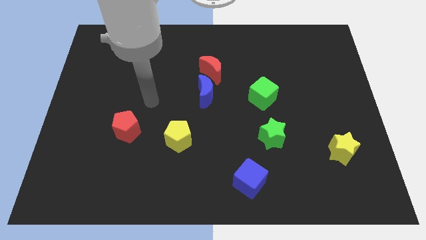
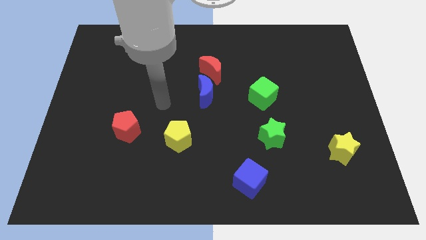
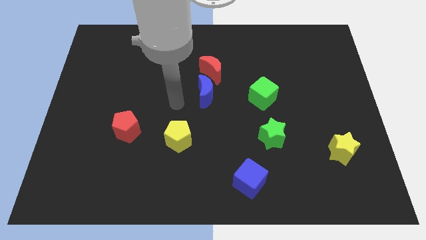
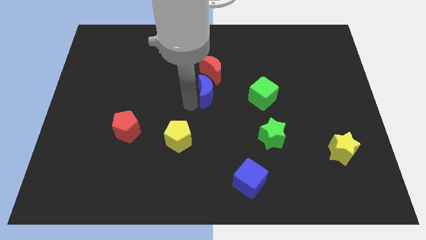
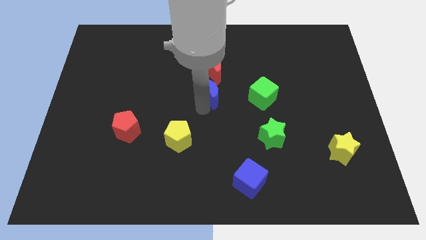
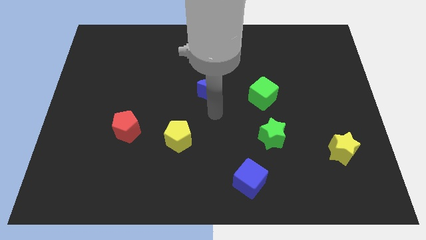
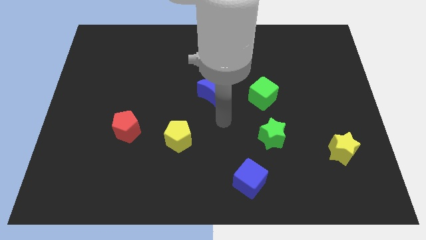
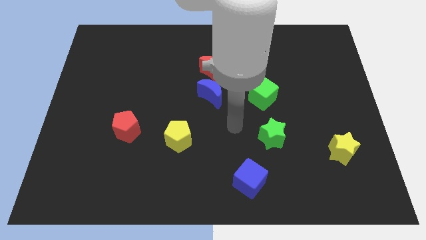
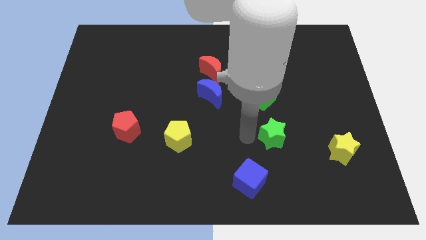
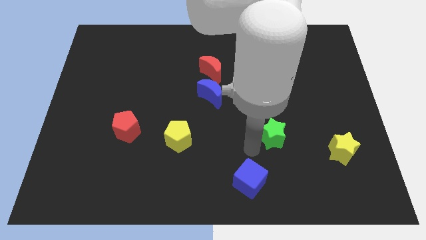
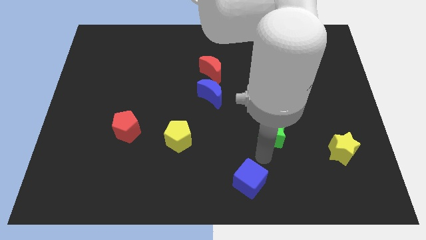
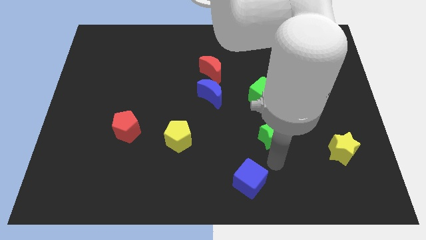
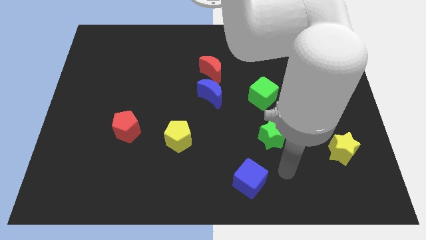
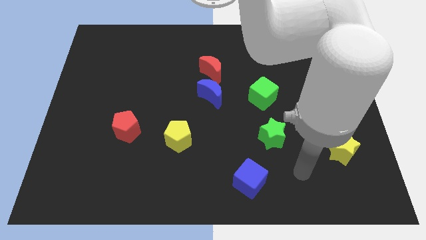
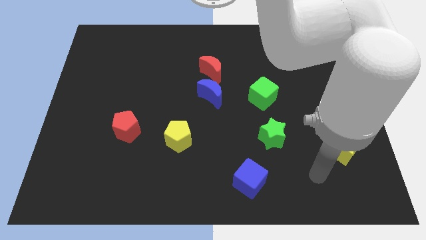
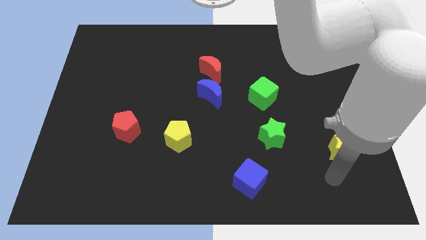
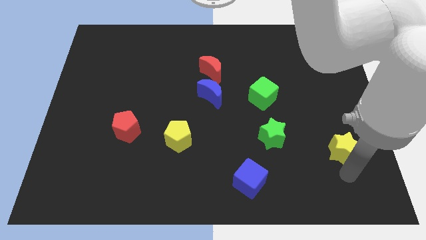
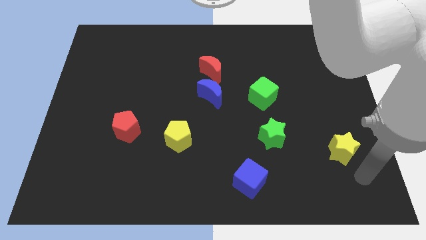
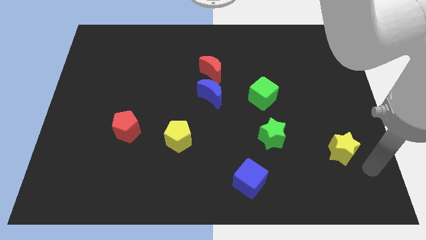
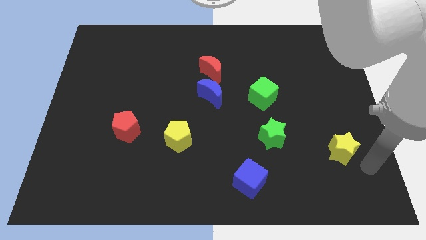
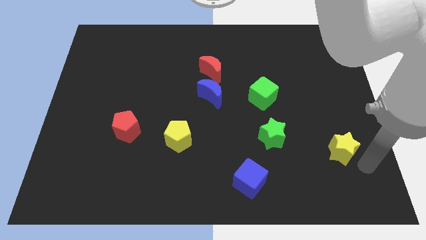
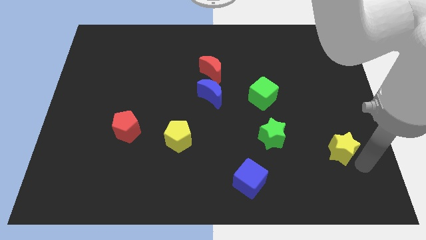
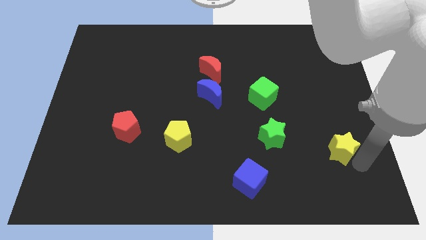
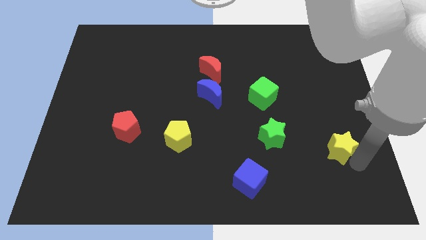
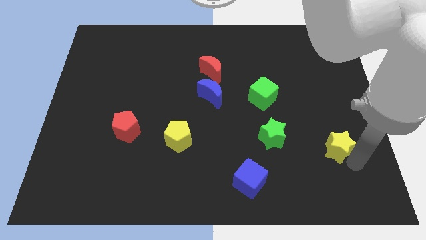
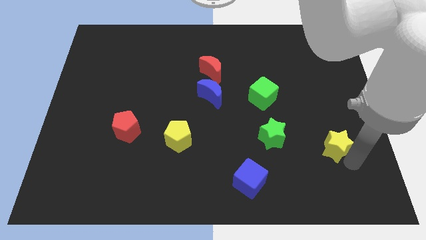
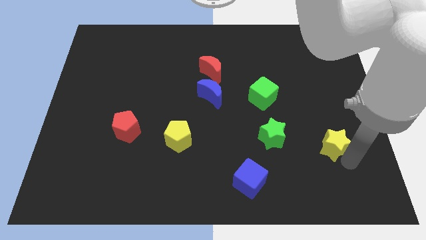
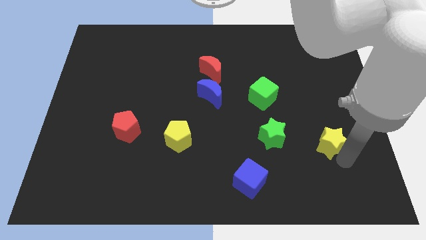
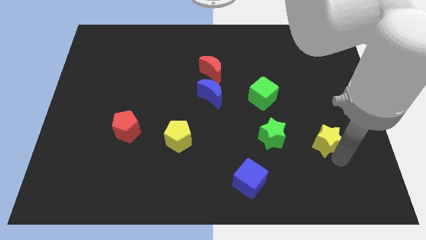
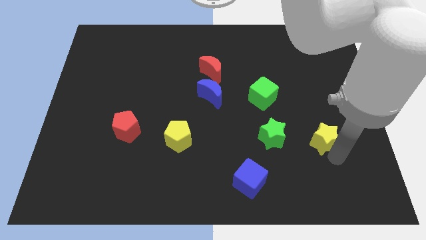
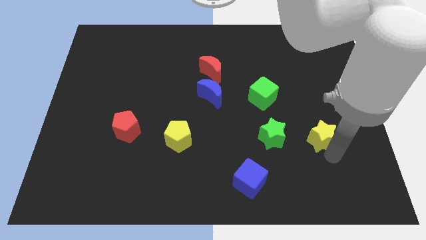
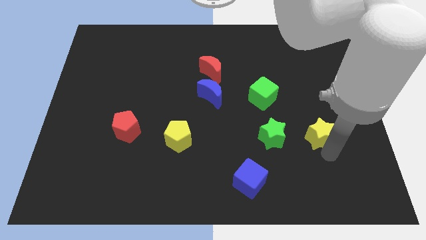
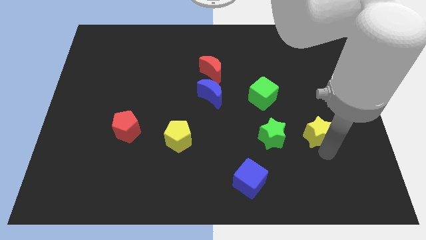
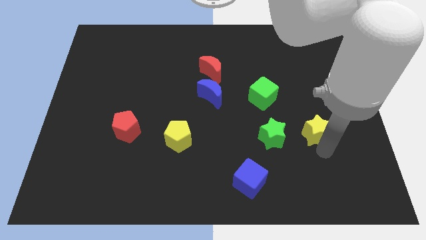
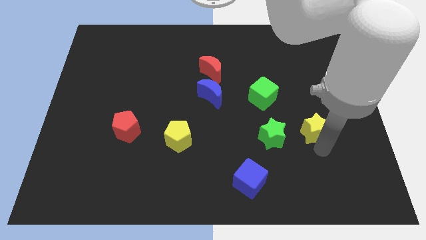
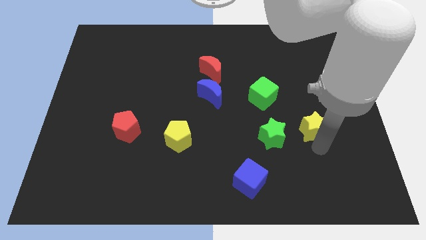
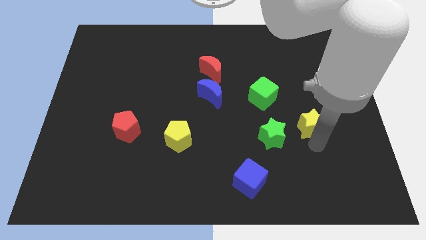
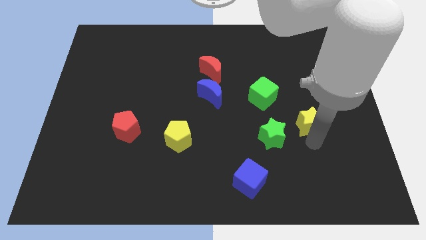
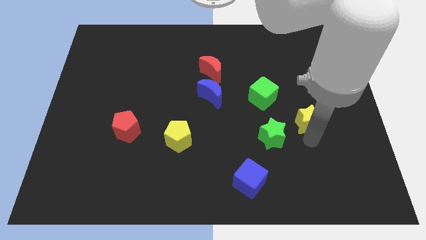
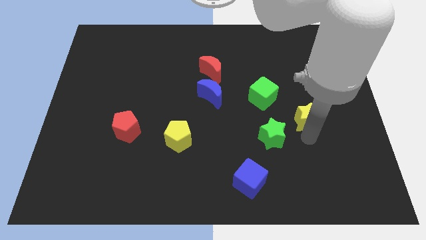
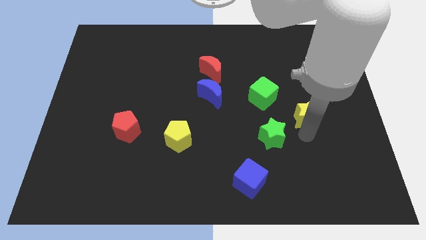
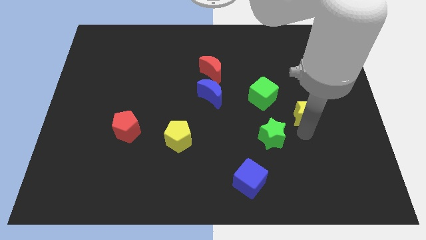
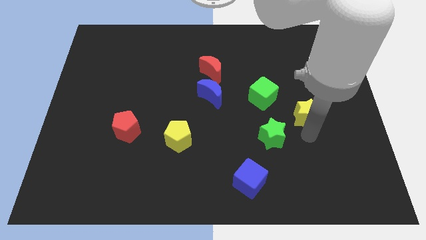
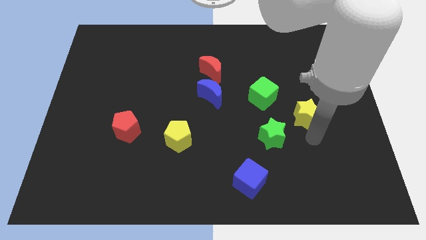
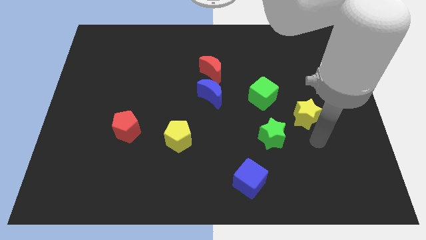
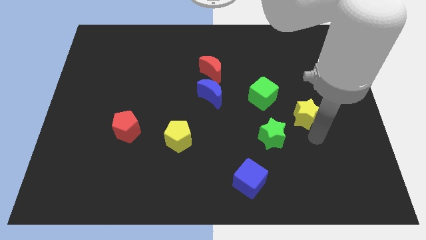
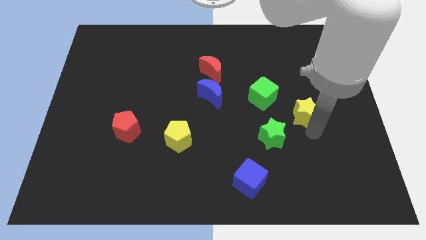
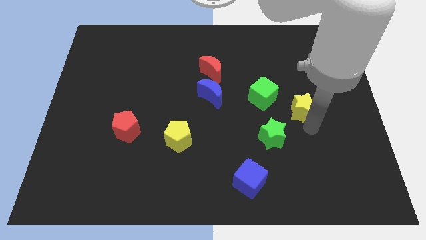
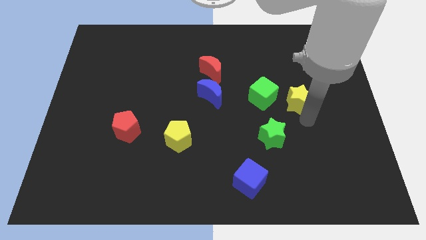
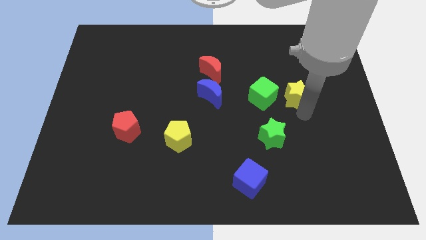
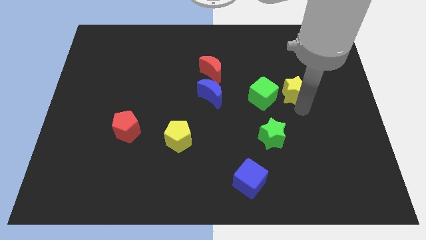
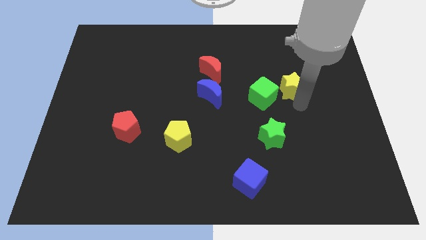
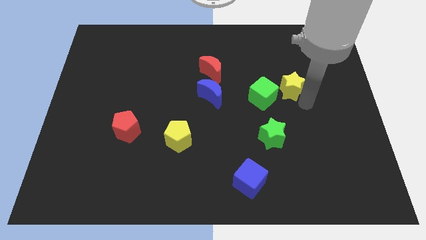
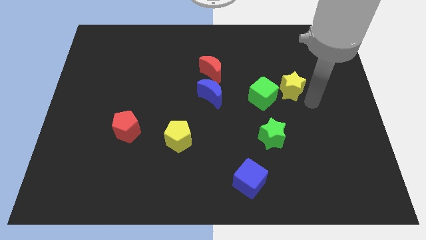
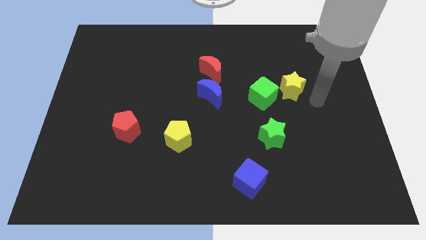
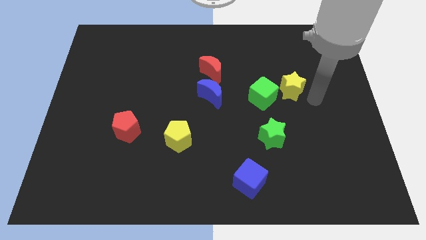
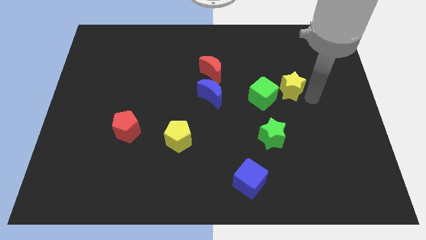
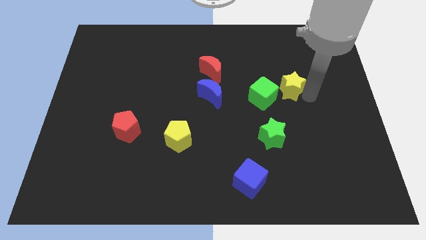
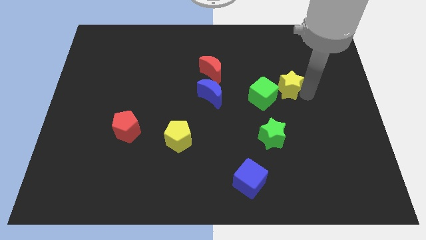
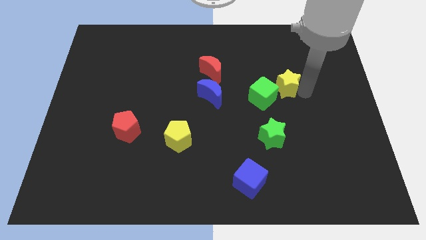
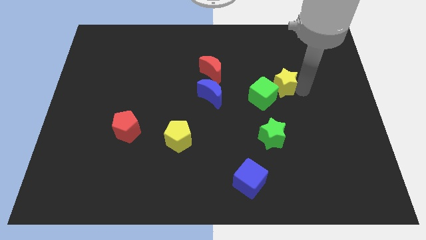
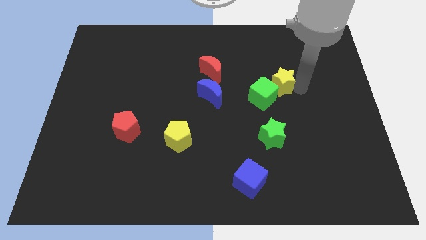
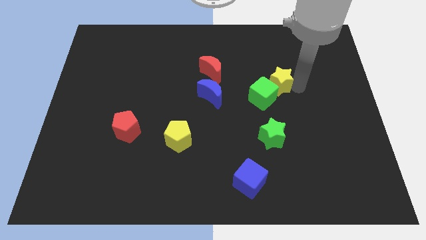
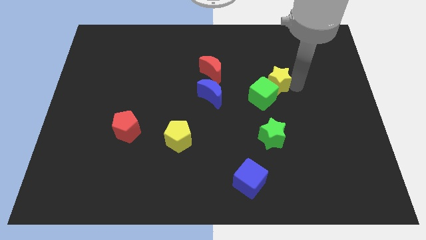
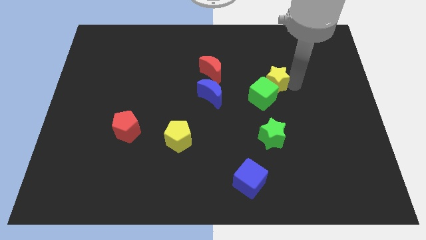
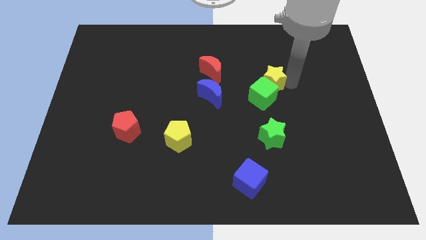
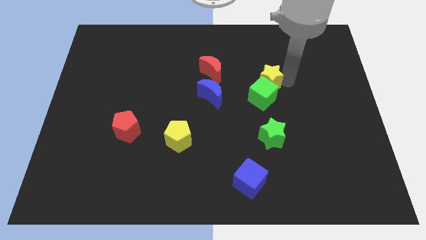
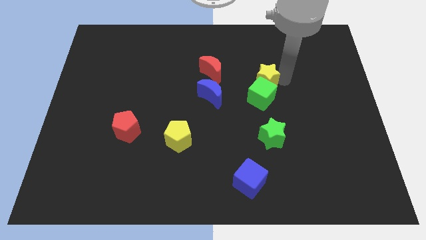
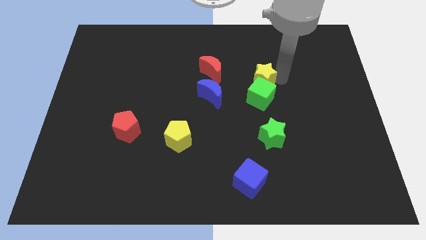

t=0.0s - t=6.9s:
move the yellow star diagonally up and to the left of the green cube

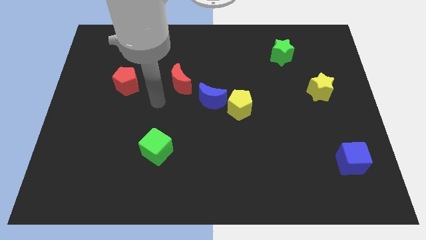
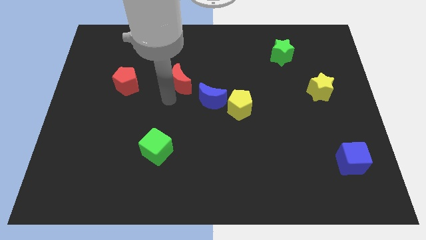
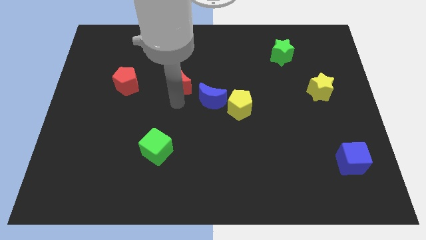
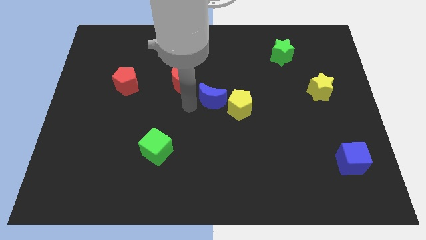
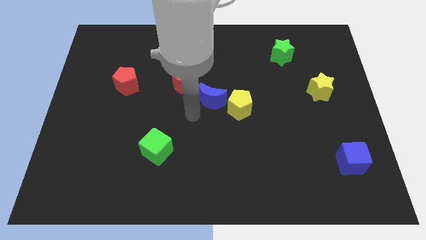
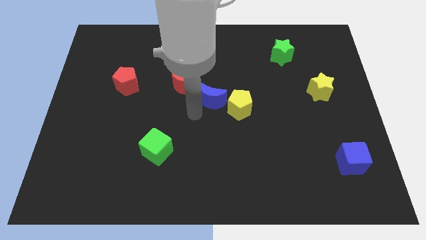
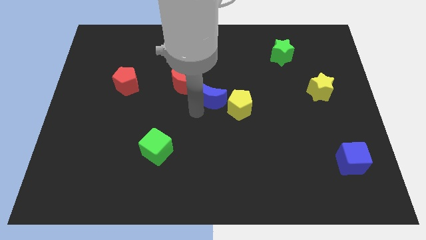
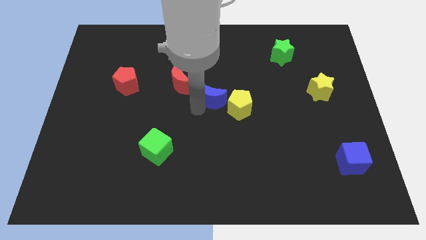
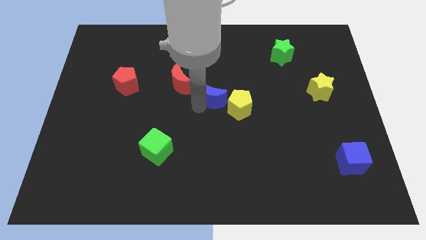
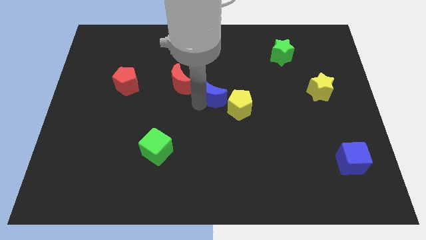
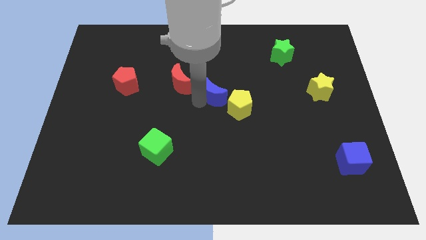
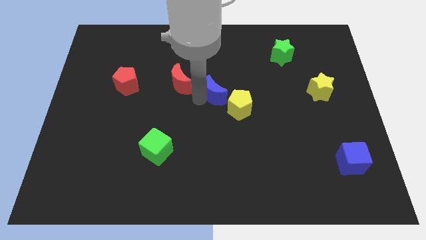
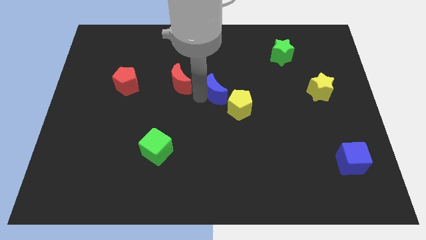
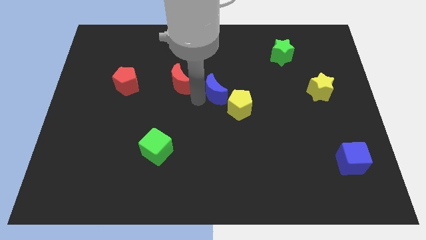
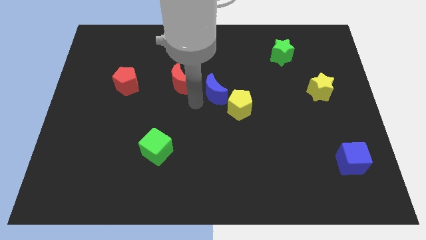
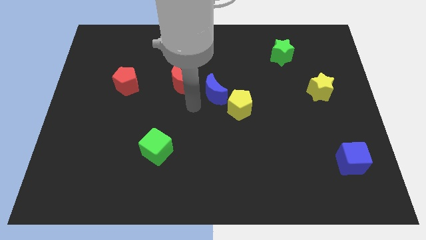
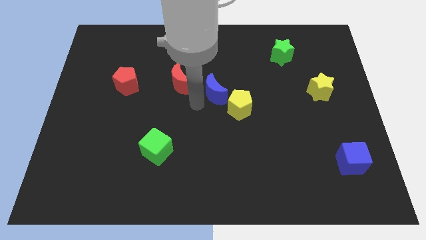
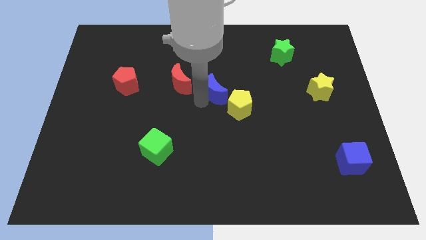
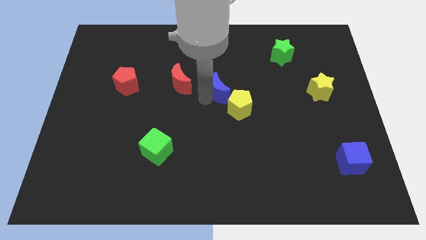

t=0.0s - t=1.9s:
slide the blue moon to the top side of the yellow pentagon
